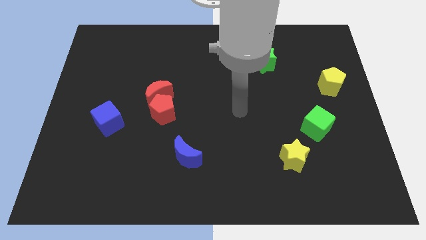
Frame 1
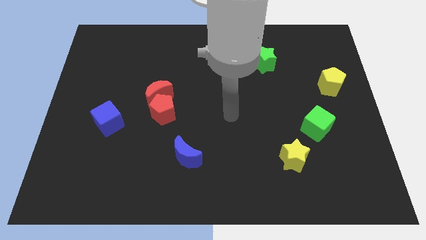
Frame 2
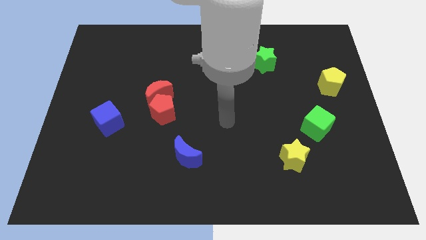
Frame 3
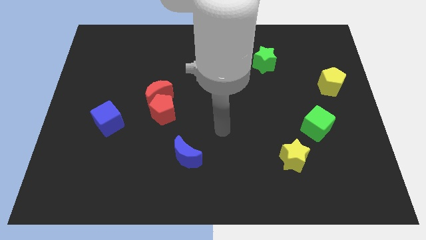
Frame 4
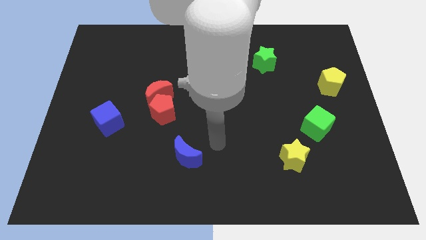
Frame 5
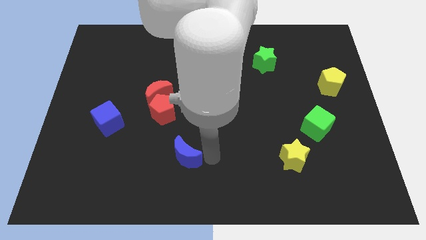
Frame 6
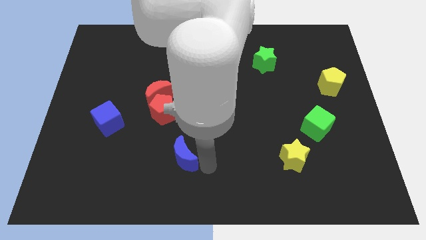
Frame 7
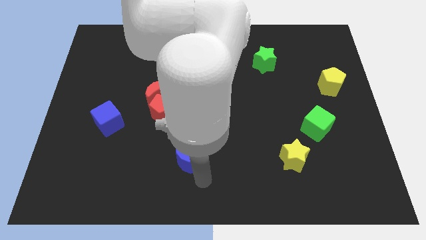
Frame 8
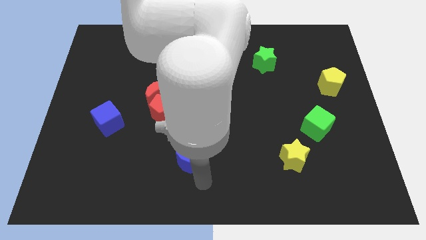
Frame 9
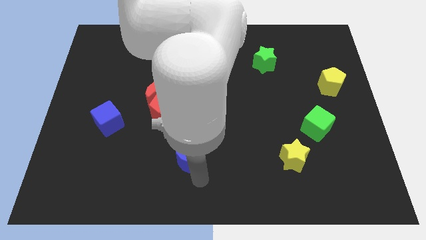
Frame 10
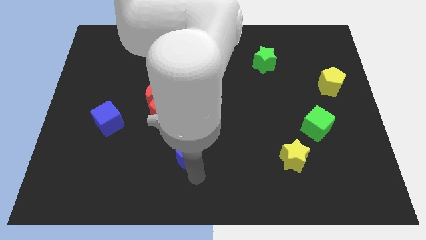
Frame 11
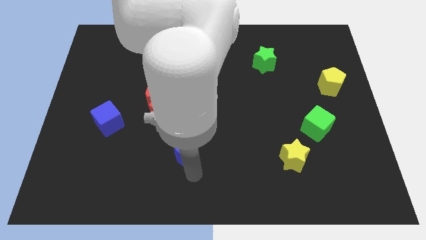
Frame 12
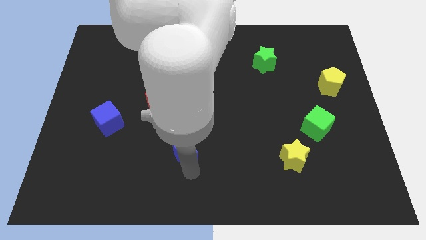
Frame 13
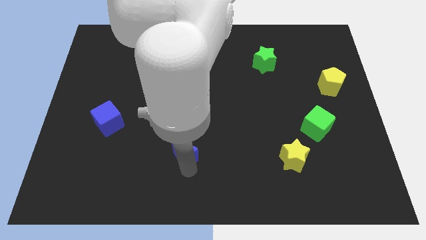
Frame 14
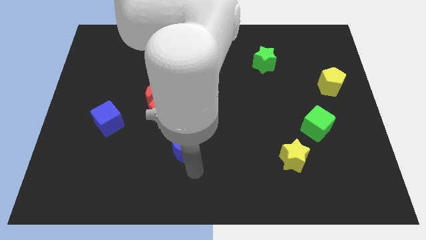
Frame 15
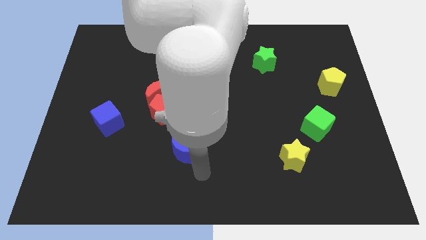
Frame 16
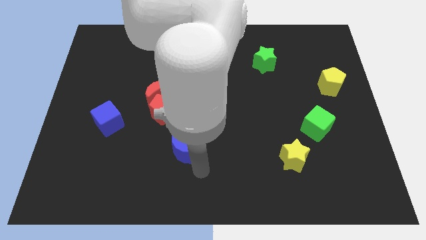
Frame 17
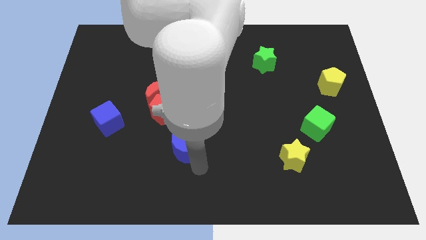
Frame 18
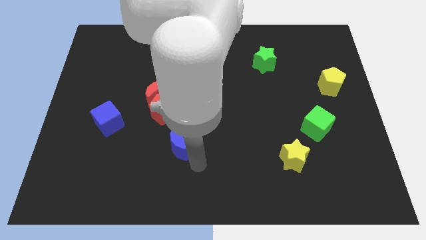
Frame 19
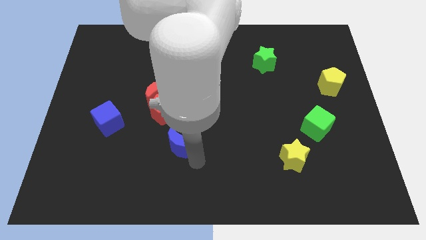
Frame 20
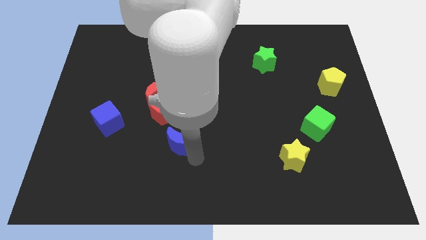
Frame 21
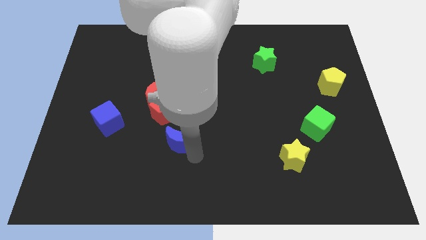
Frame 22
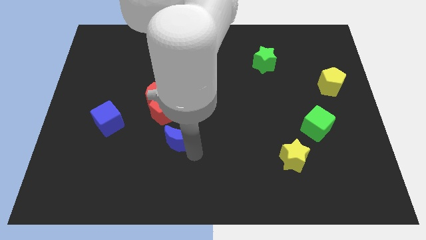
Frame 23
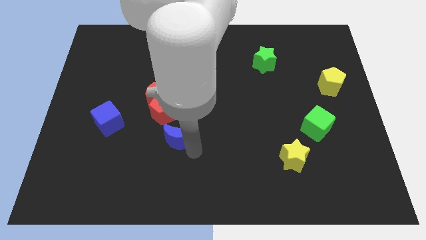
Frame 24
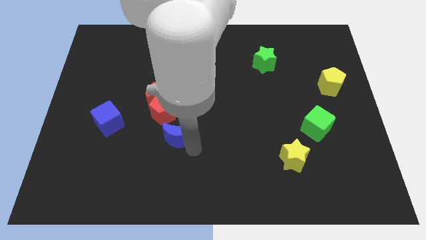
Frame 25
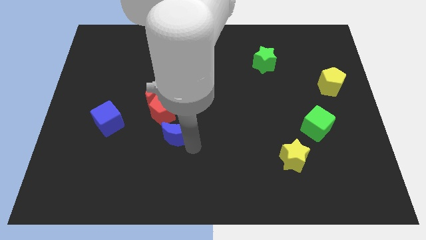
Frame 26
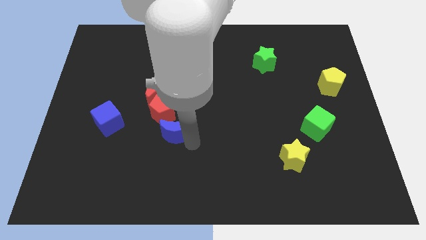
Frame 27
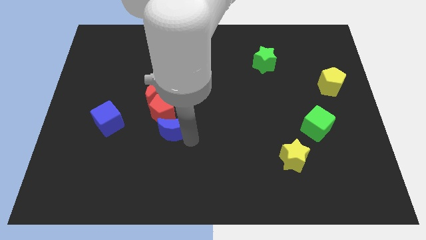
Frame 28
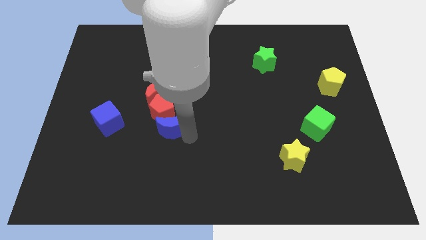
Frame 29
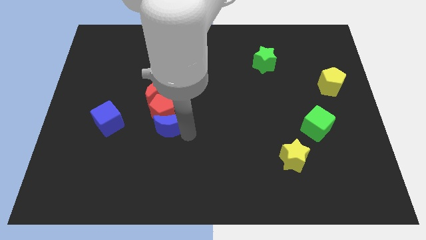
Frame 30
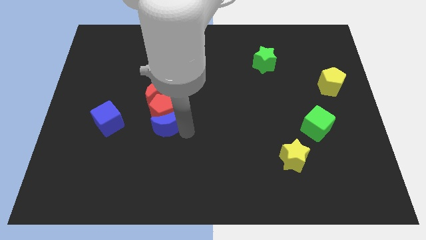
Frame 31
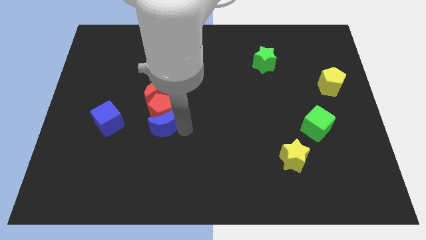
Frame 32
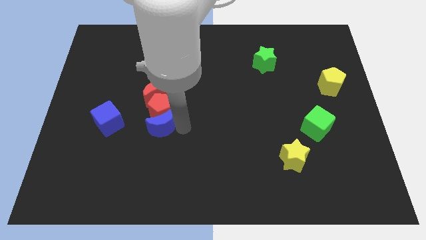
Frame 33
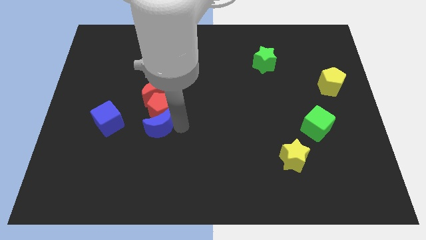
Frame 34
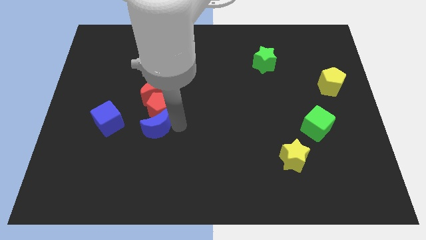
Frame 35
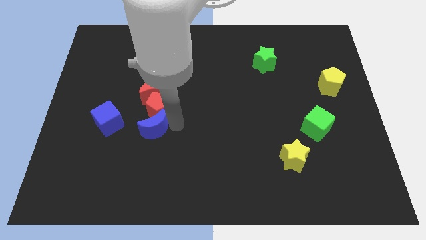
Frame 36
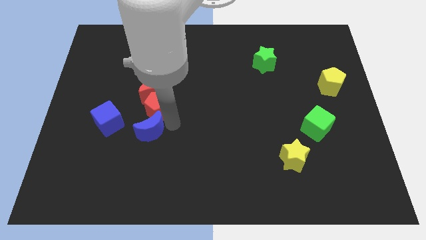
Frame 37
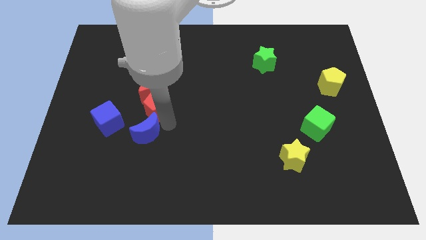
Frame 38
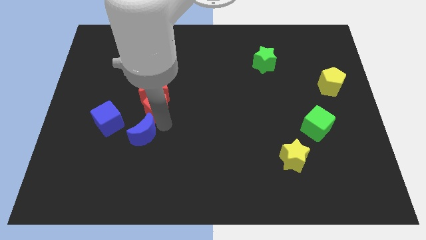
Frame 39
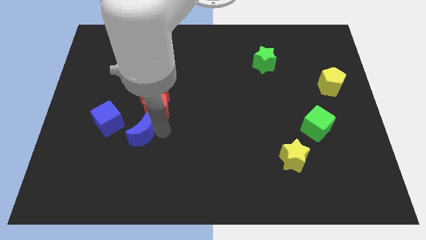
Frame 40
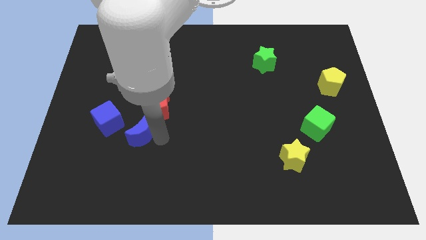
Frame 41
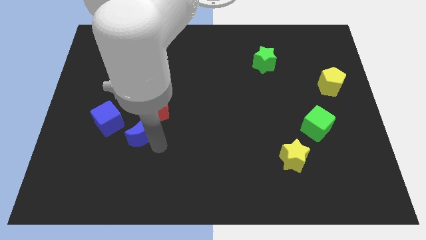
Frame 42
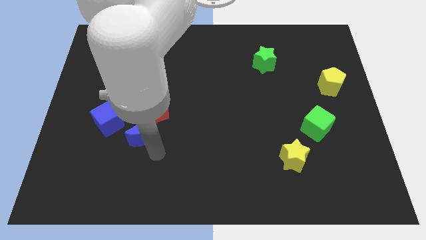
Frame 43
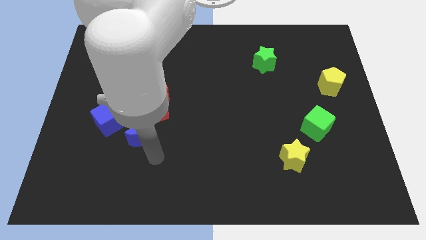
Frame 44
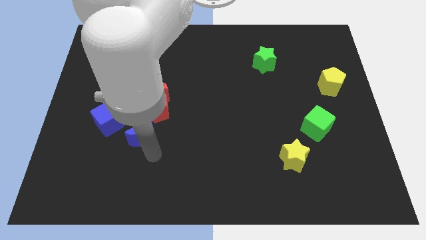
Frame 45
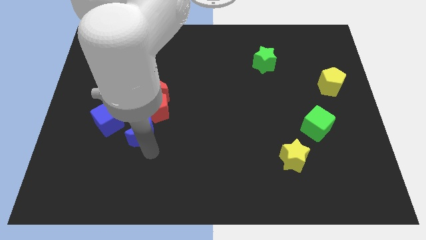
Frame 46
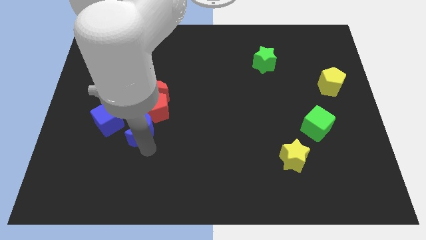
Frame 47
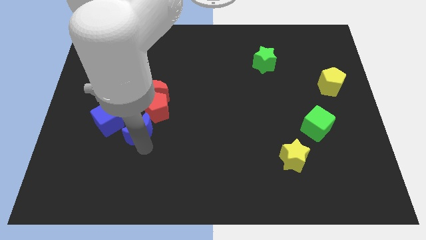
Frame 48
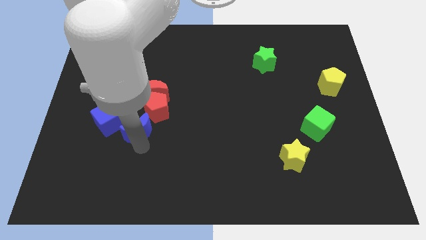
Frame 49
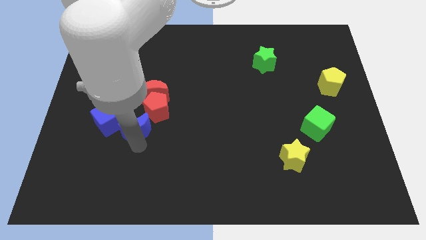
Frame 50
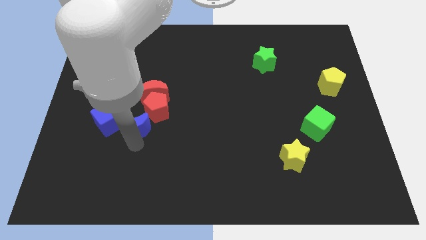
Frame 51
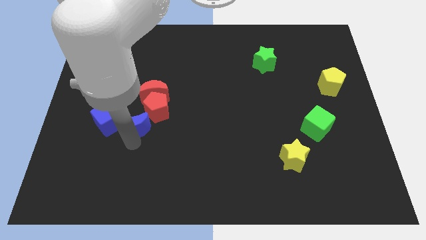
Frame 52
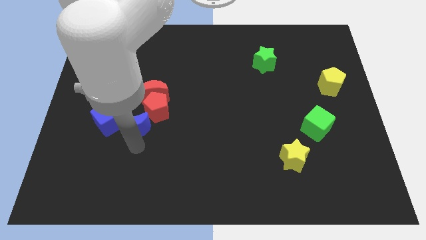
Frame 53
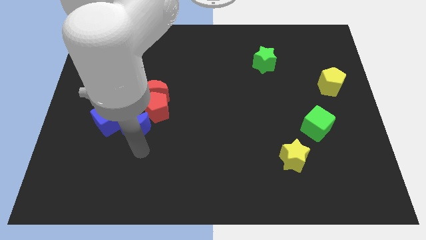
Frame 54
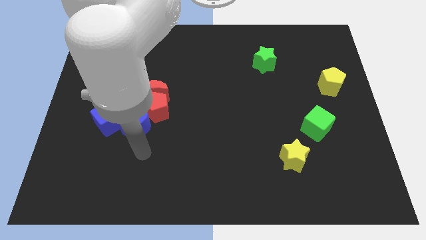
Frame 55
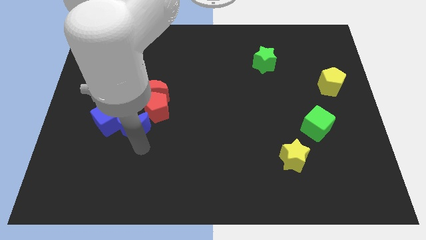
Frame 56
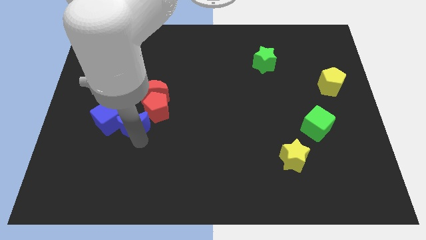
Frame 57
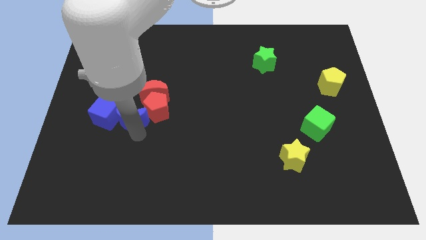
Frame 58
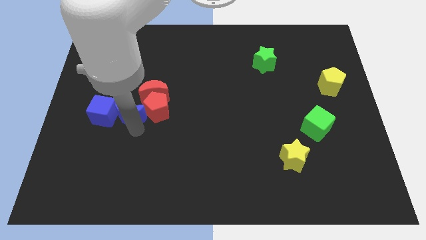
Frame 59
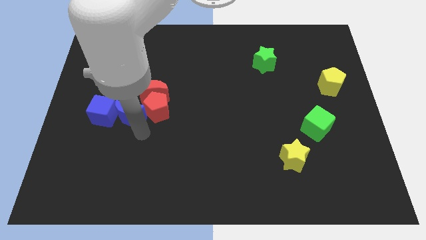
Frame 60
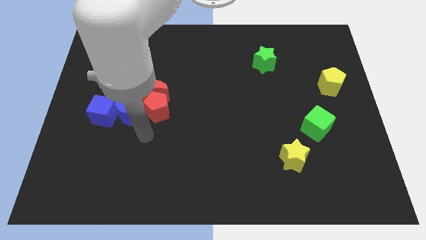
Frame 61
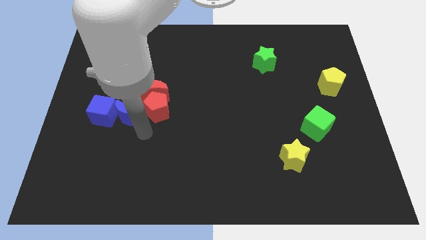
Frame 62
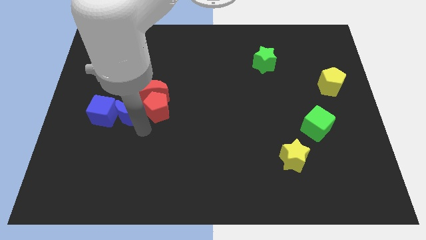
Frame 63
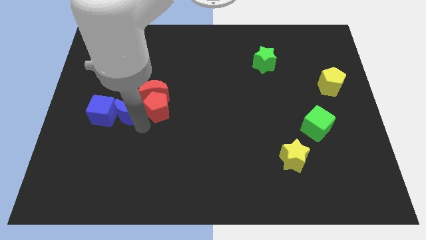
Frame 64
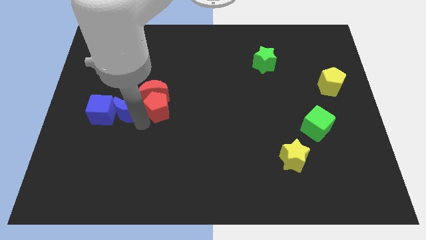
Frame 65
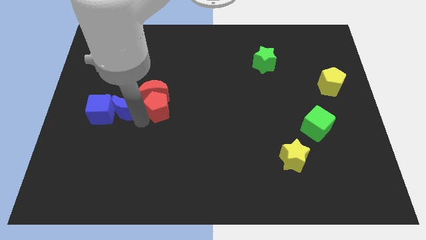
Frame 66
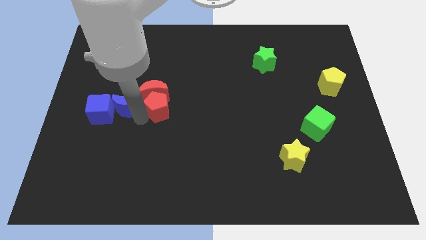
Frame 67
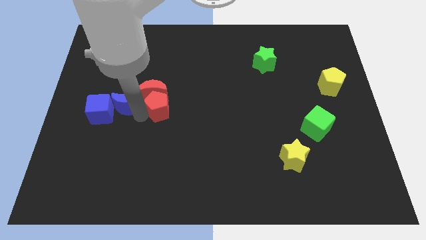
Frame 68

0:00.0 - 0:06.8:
move the blue moon upwards and left

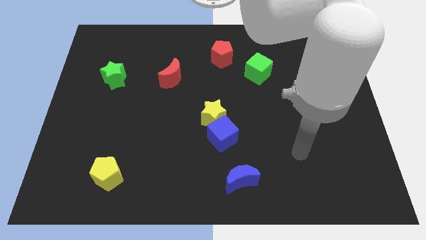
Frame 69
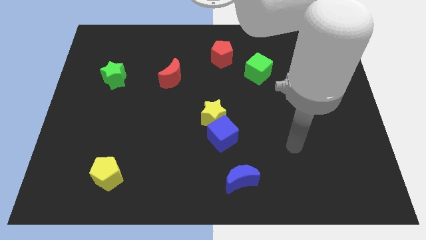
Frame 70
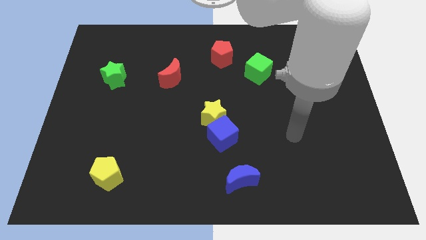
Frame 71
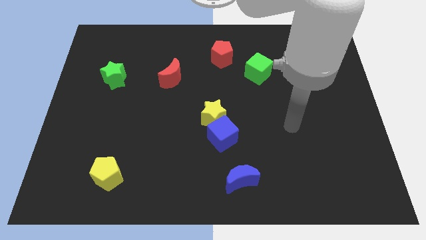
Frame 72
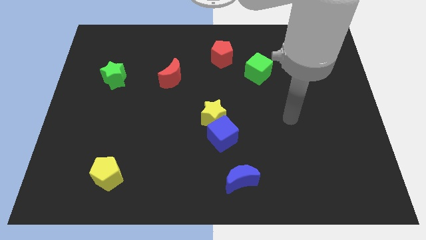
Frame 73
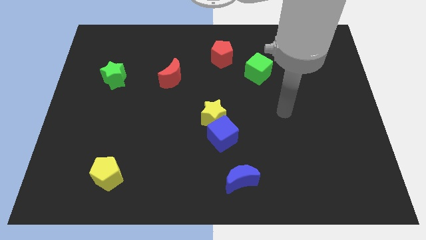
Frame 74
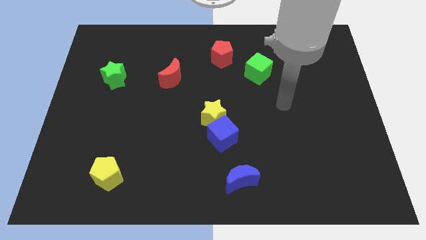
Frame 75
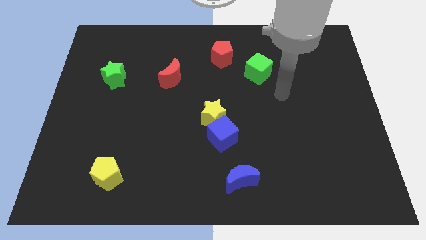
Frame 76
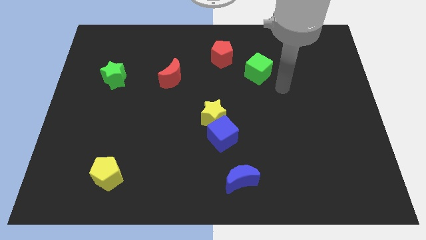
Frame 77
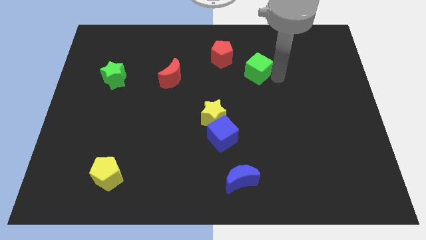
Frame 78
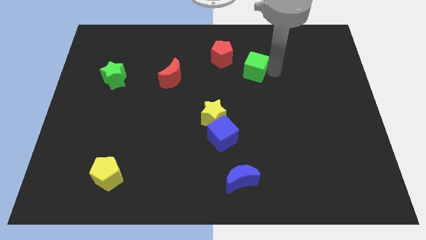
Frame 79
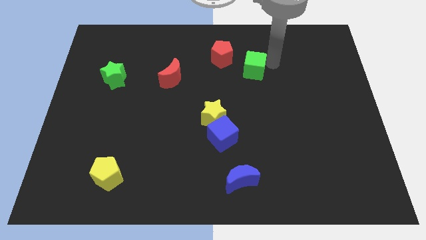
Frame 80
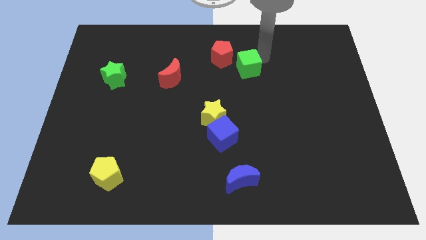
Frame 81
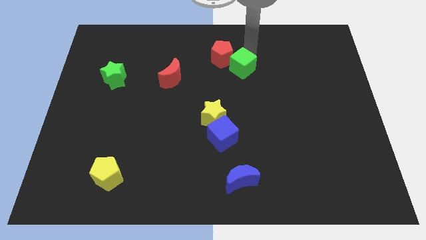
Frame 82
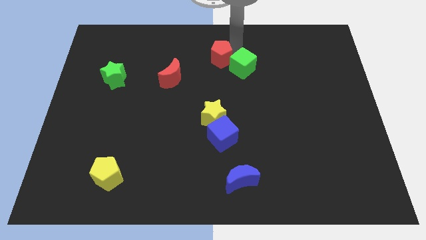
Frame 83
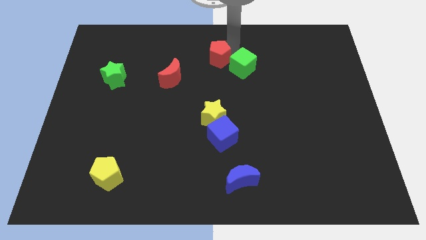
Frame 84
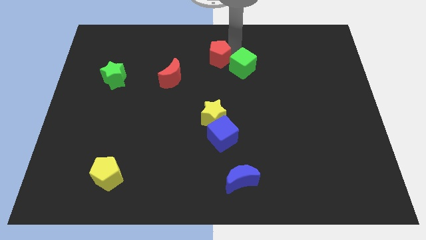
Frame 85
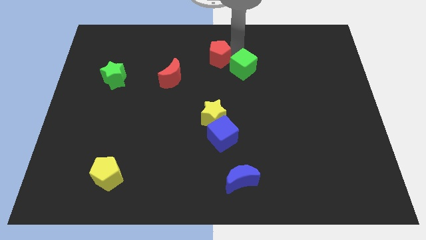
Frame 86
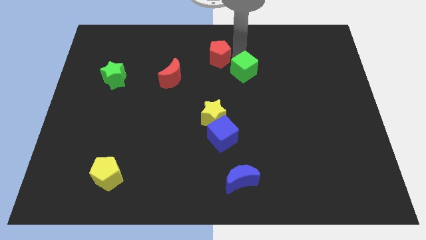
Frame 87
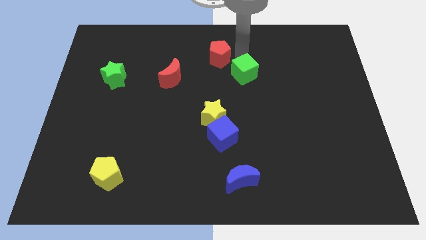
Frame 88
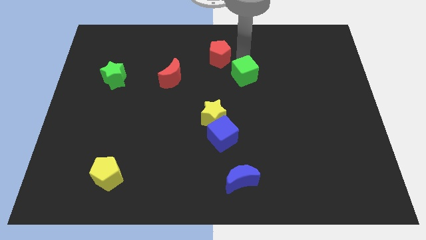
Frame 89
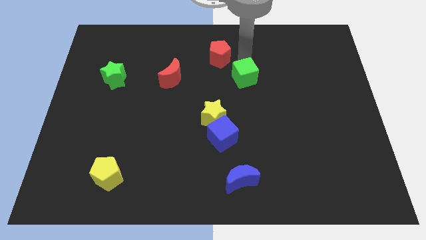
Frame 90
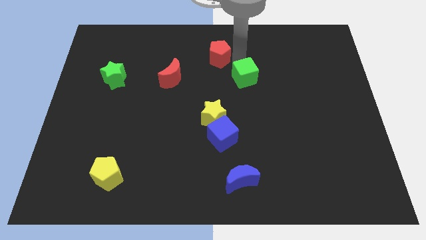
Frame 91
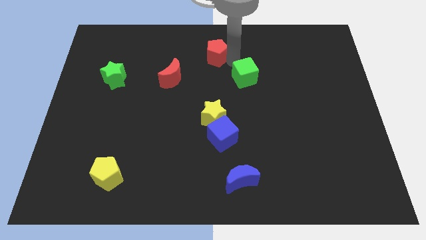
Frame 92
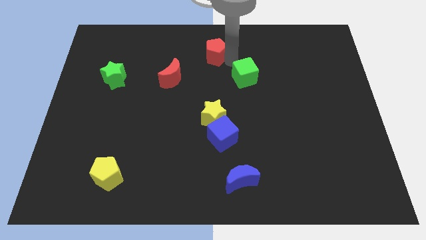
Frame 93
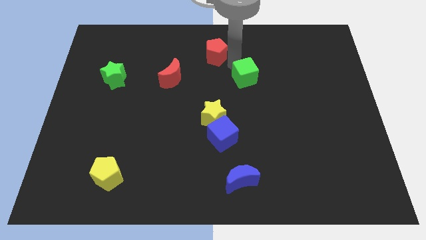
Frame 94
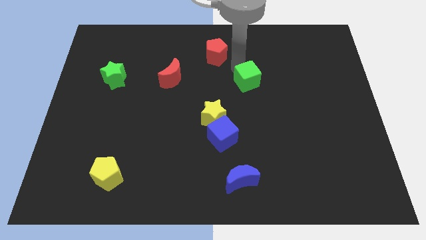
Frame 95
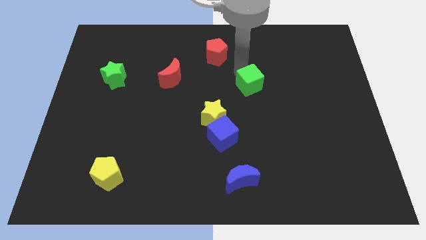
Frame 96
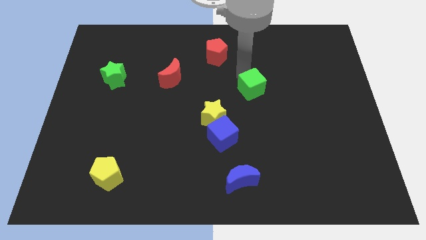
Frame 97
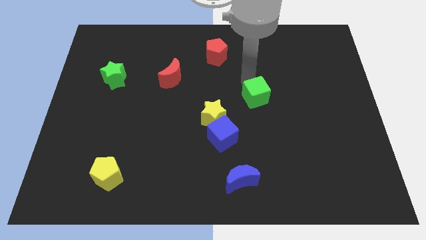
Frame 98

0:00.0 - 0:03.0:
move the green cube somewhat down
